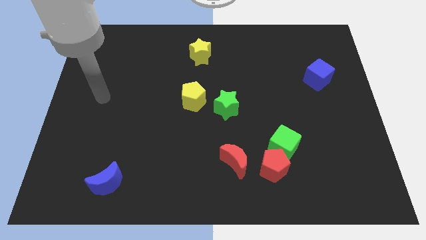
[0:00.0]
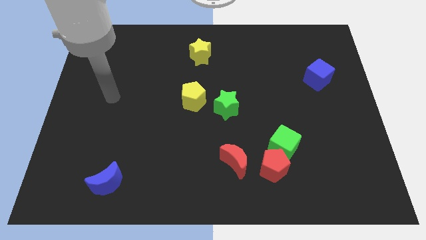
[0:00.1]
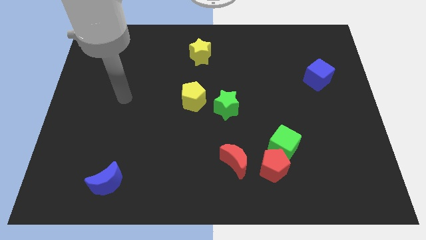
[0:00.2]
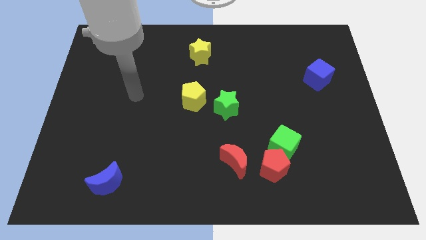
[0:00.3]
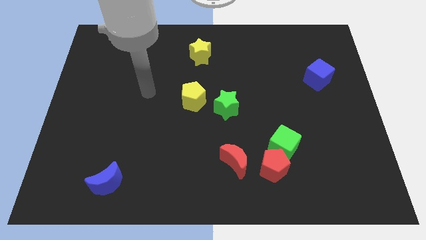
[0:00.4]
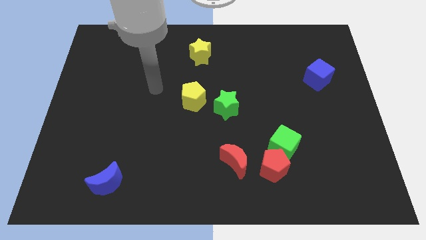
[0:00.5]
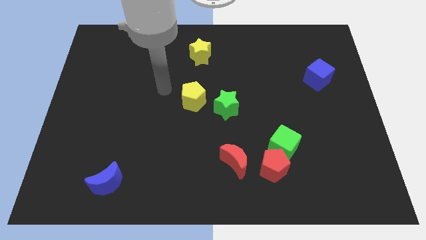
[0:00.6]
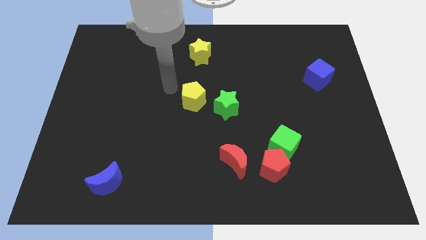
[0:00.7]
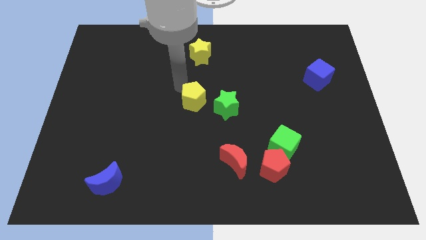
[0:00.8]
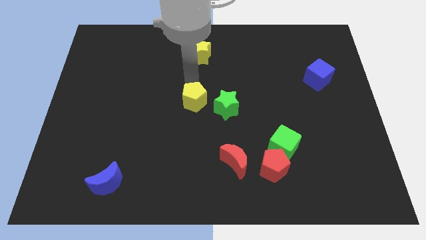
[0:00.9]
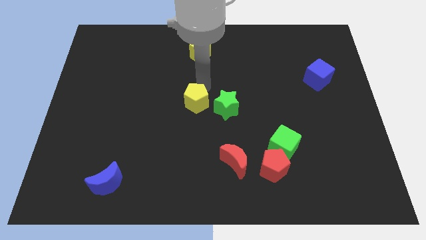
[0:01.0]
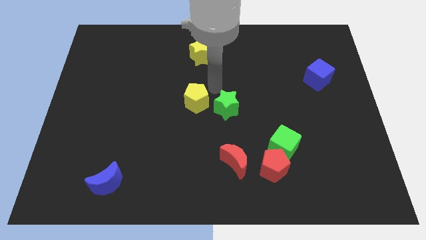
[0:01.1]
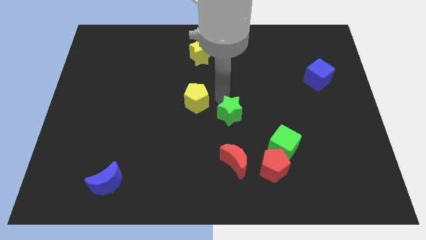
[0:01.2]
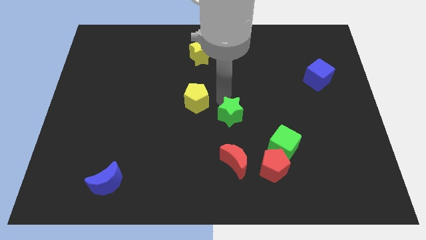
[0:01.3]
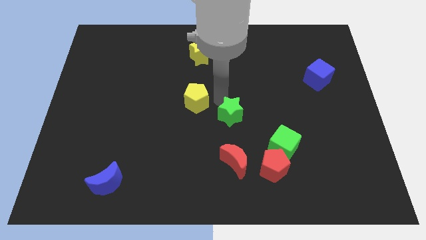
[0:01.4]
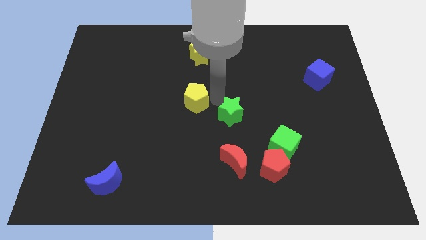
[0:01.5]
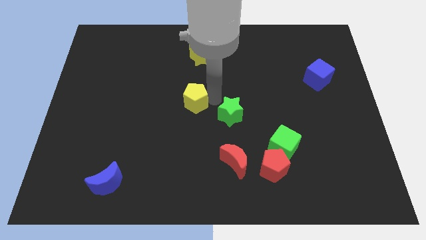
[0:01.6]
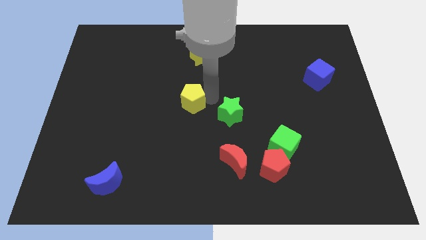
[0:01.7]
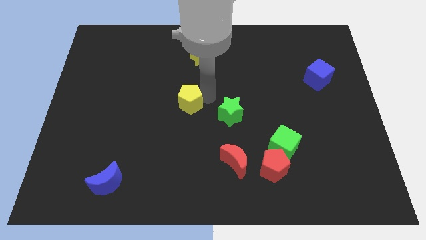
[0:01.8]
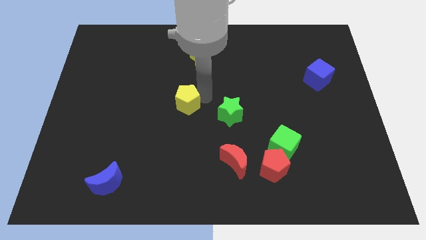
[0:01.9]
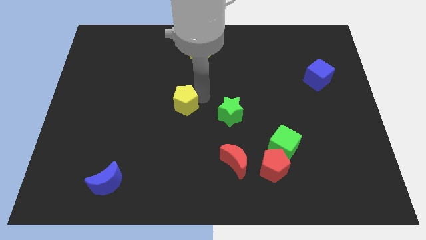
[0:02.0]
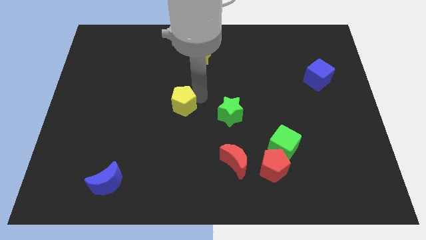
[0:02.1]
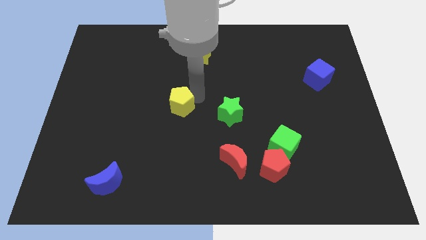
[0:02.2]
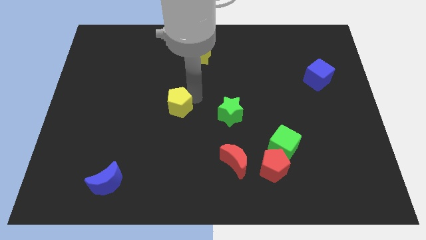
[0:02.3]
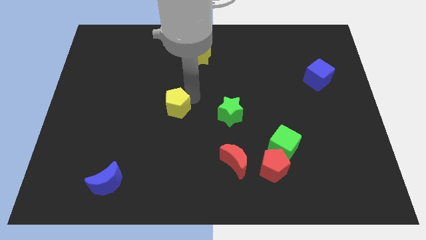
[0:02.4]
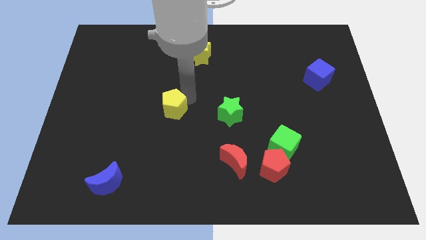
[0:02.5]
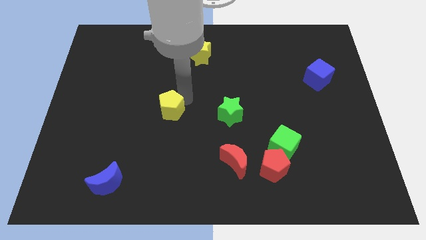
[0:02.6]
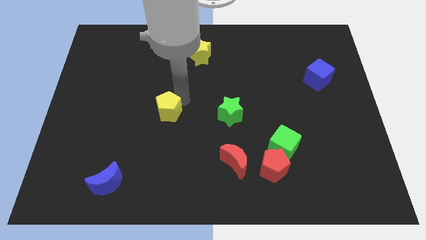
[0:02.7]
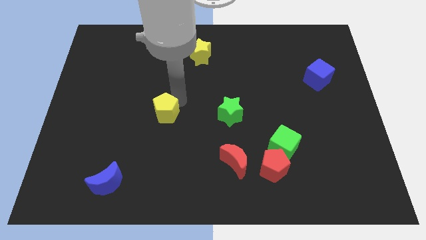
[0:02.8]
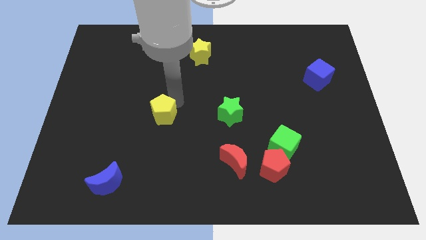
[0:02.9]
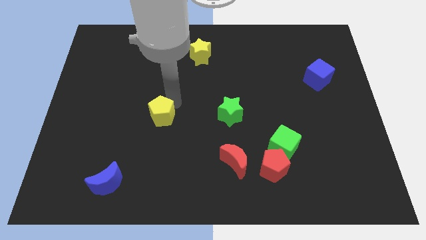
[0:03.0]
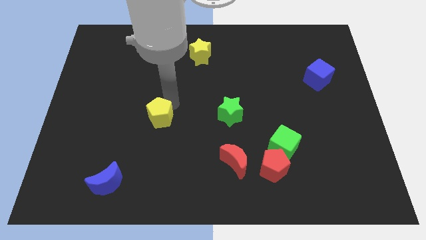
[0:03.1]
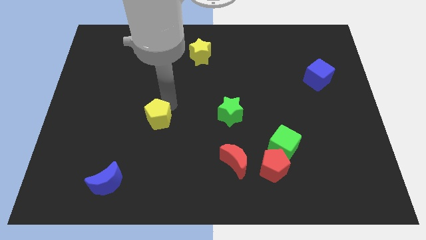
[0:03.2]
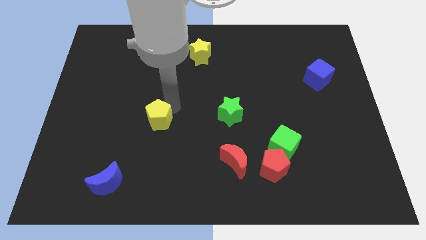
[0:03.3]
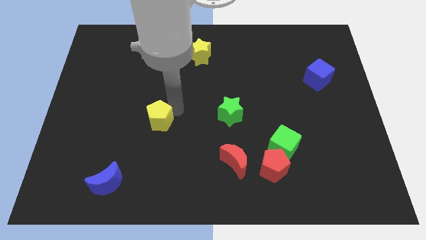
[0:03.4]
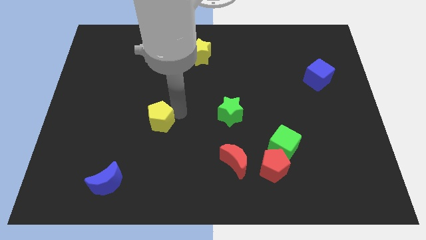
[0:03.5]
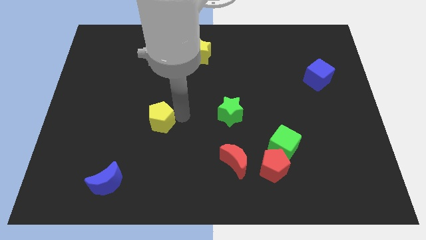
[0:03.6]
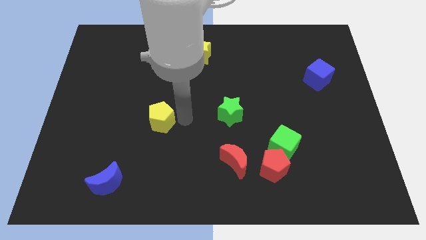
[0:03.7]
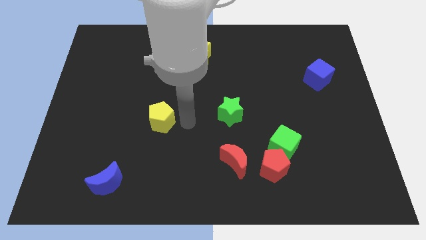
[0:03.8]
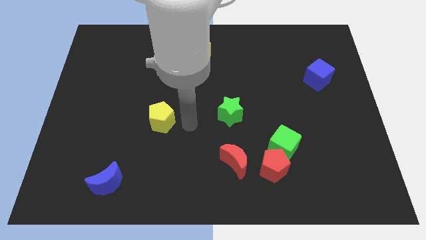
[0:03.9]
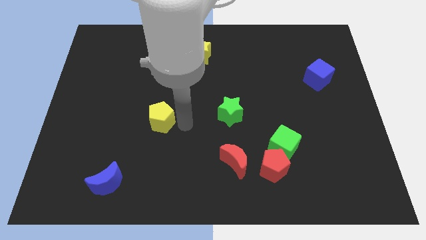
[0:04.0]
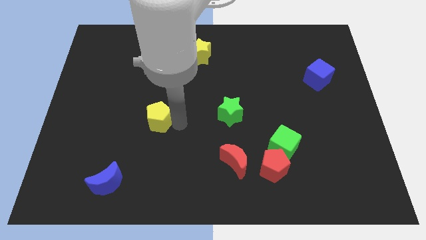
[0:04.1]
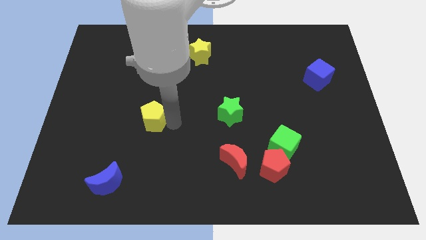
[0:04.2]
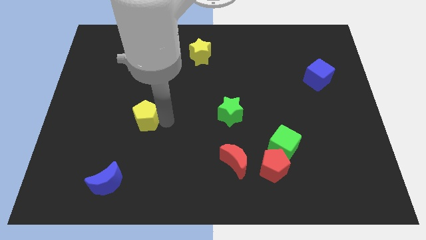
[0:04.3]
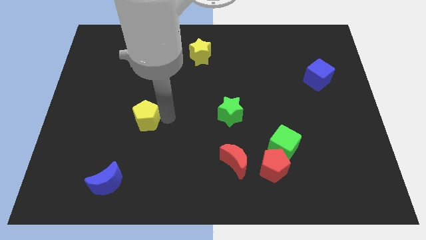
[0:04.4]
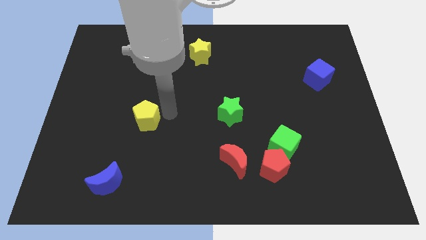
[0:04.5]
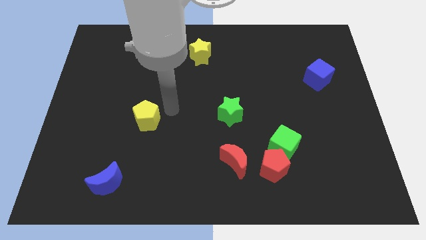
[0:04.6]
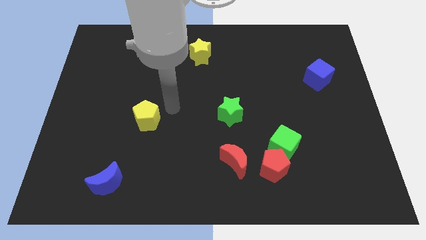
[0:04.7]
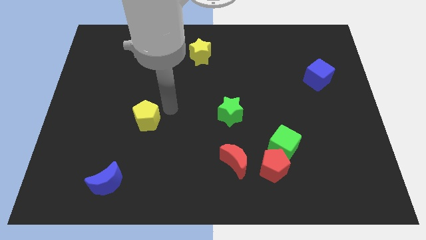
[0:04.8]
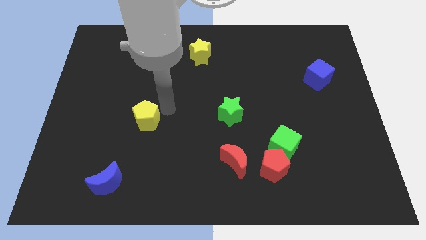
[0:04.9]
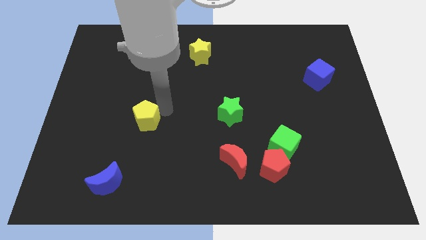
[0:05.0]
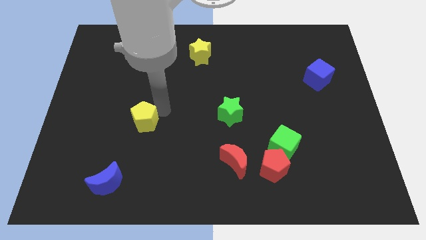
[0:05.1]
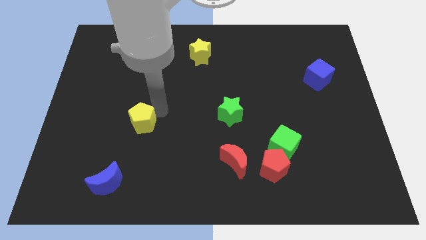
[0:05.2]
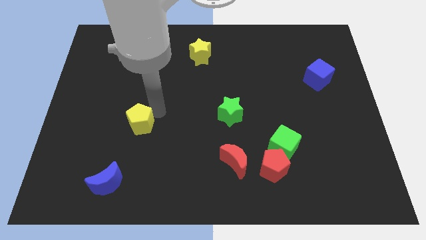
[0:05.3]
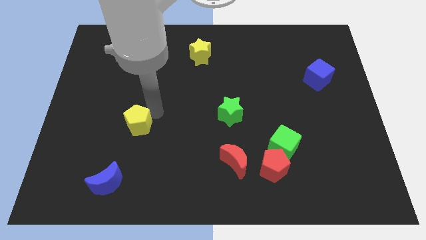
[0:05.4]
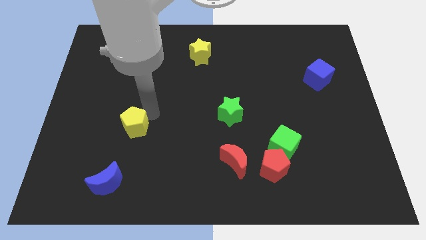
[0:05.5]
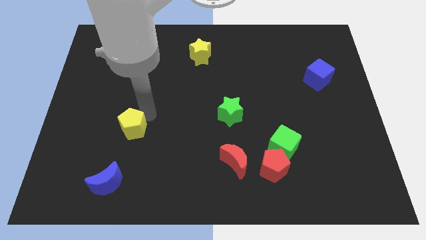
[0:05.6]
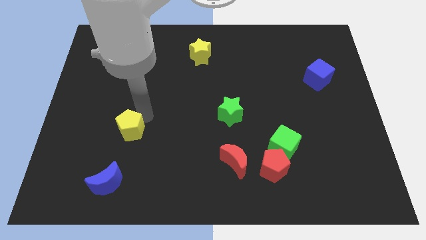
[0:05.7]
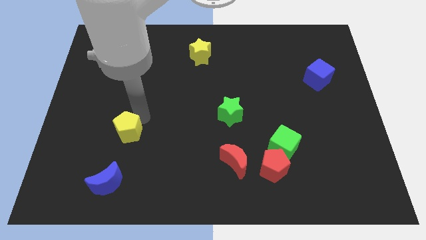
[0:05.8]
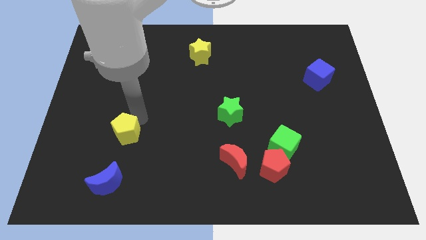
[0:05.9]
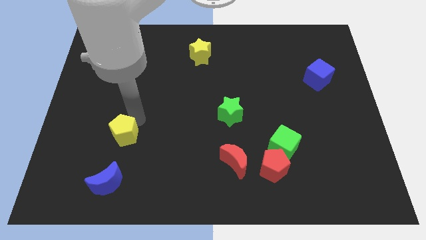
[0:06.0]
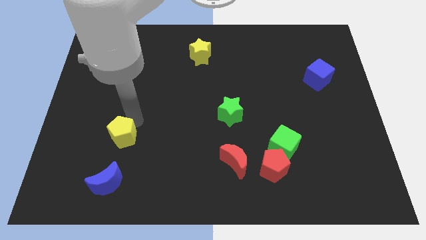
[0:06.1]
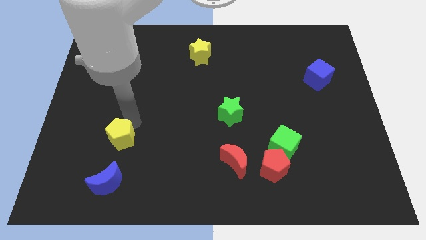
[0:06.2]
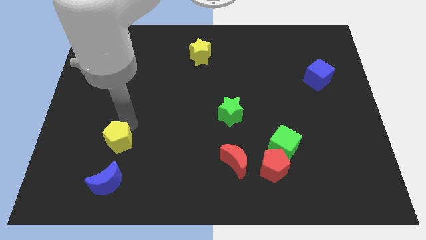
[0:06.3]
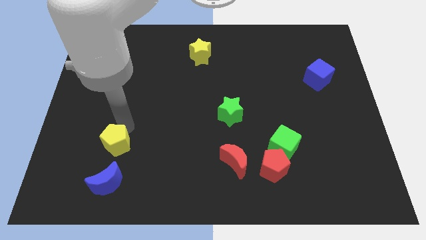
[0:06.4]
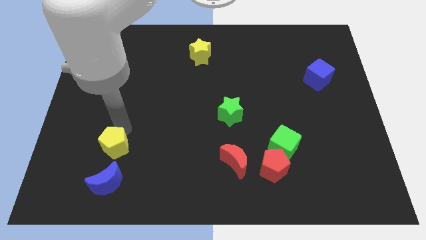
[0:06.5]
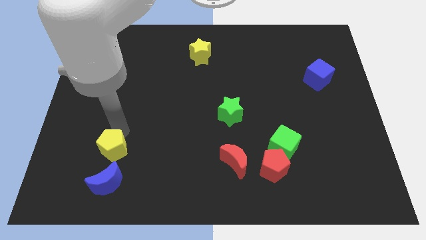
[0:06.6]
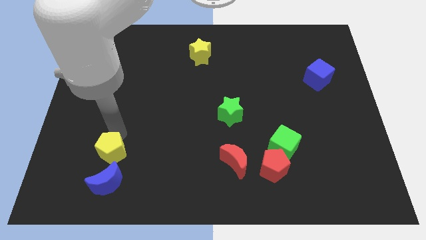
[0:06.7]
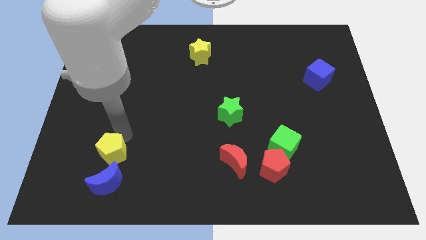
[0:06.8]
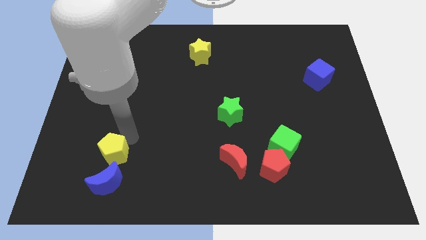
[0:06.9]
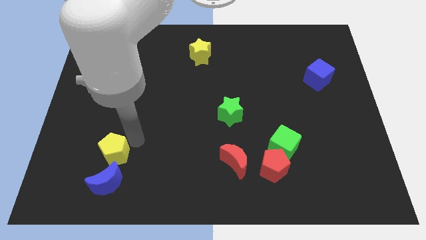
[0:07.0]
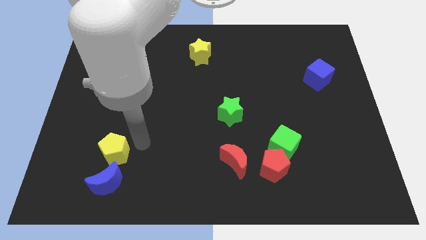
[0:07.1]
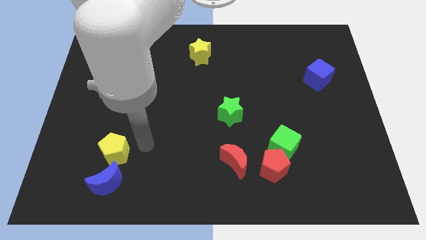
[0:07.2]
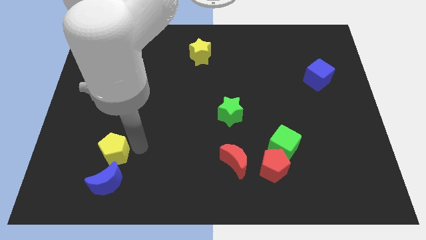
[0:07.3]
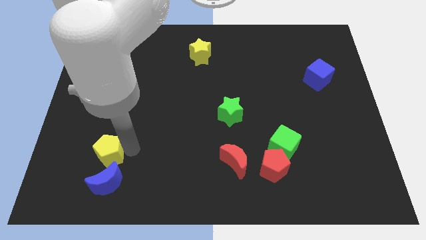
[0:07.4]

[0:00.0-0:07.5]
move the yellow pentagon to the top left side of the blue moon
